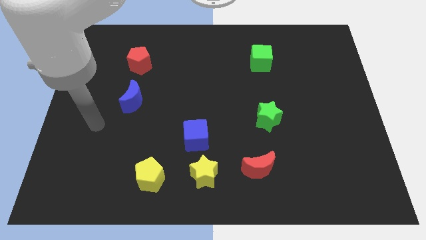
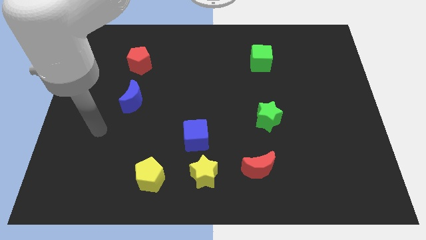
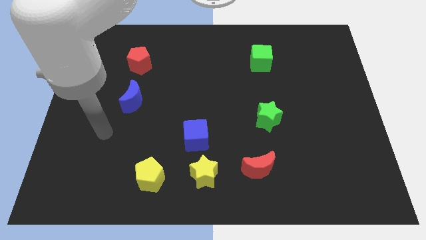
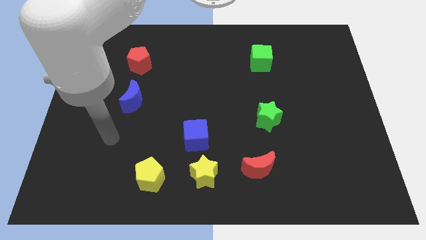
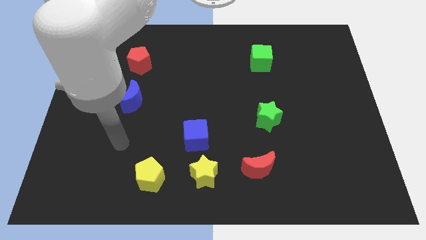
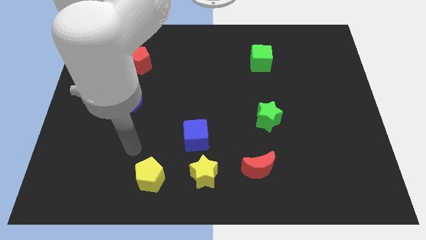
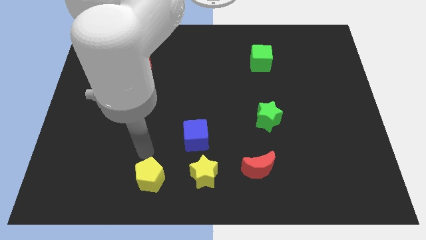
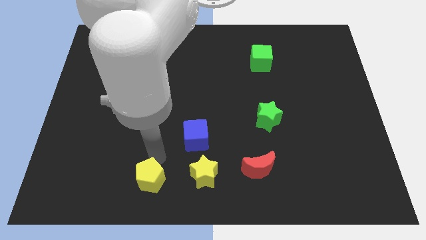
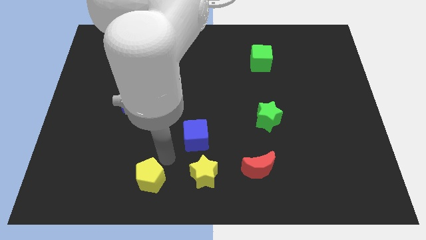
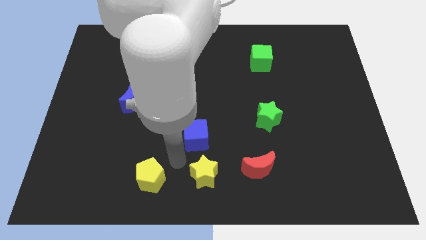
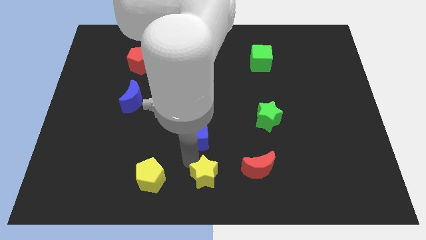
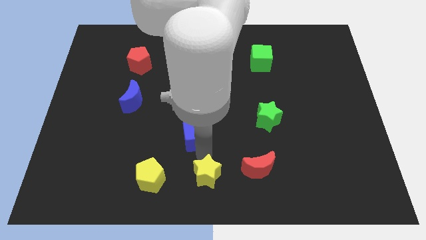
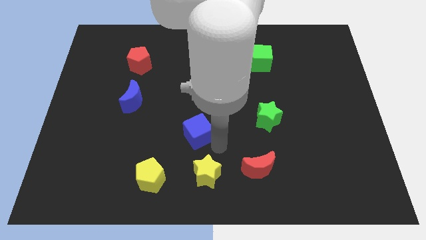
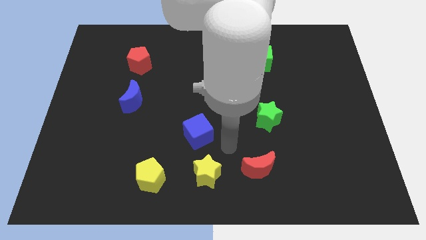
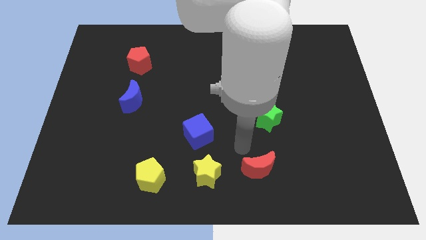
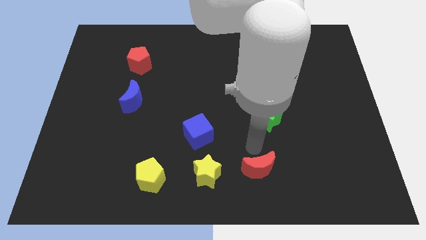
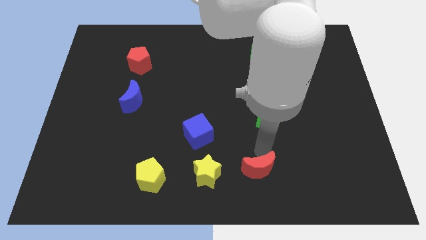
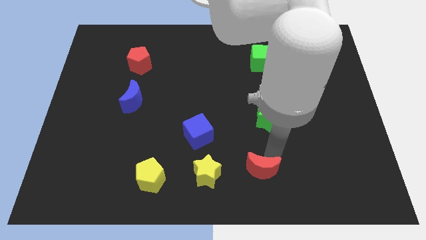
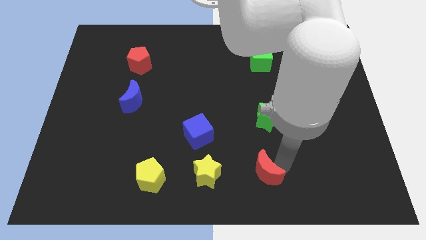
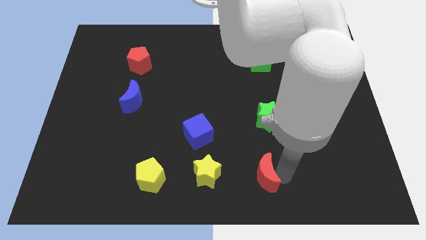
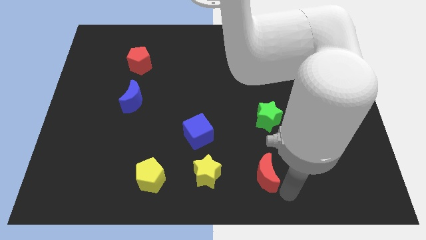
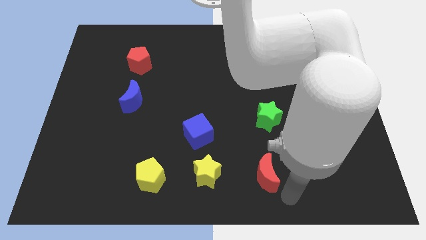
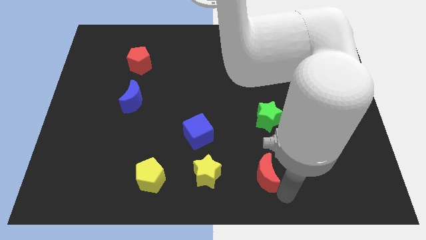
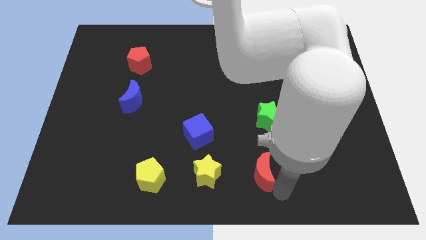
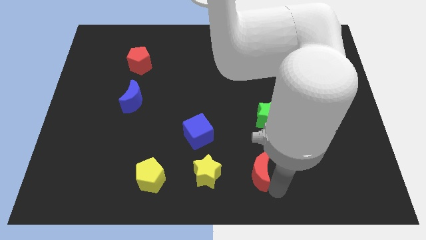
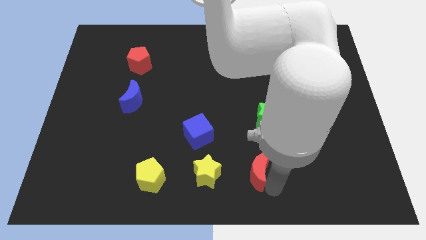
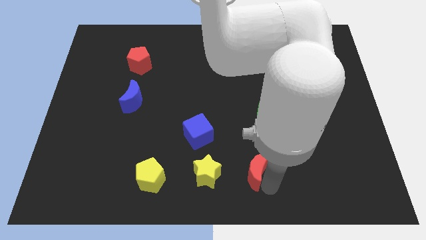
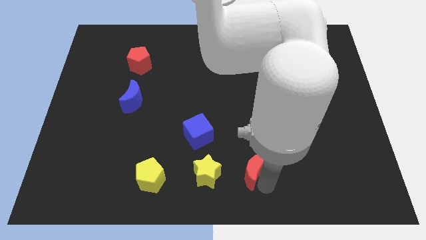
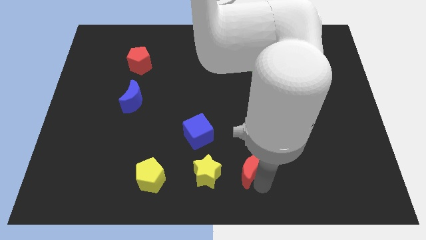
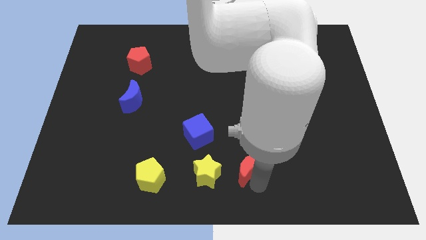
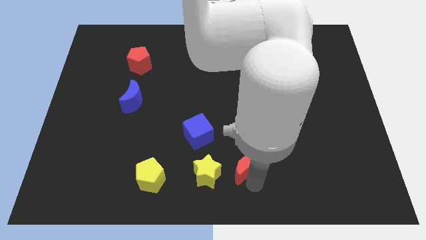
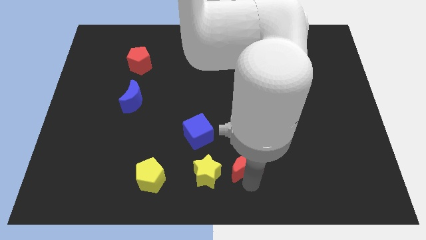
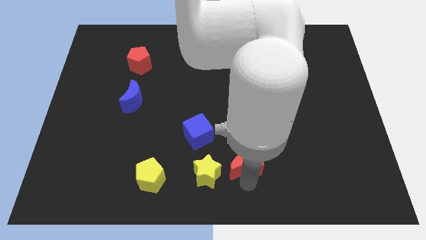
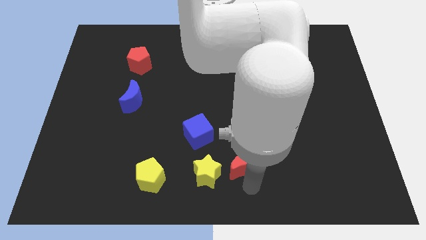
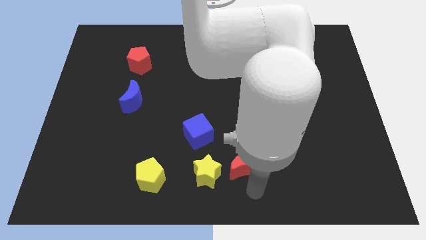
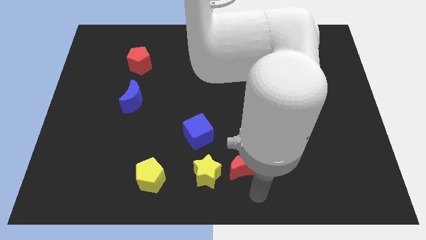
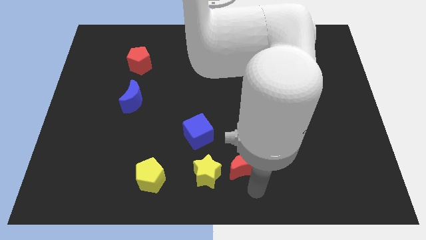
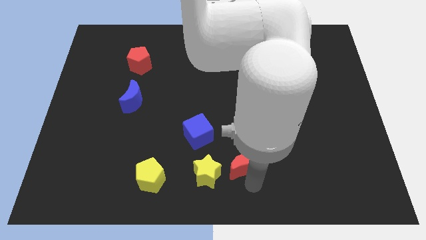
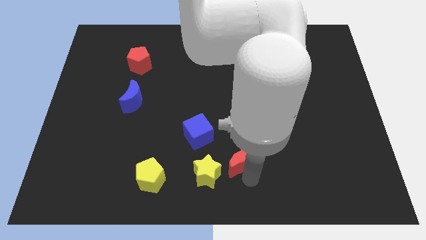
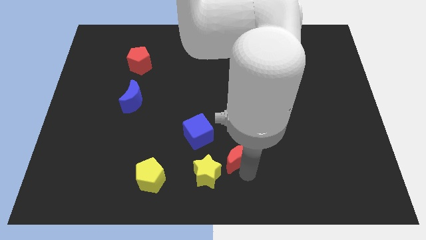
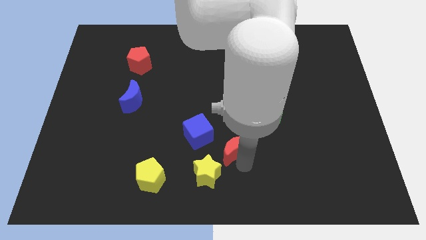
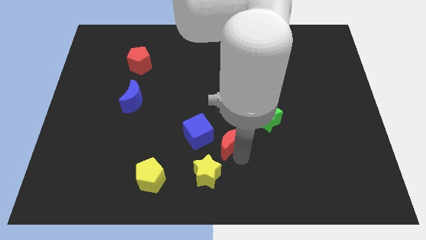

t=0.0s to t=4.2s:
slightly push the red moon up and to the left

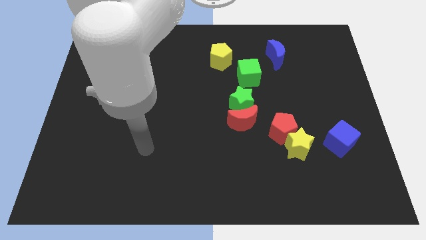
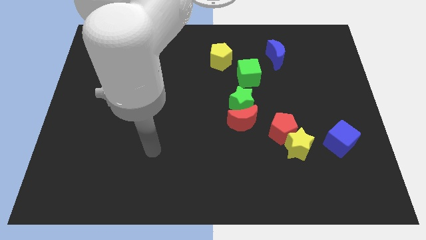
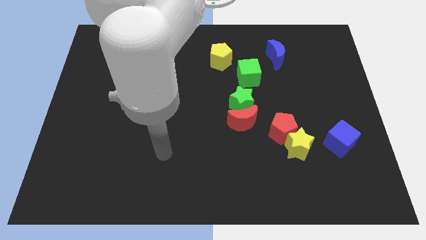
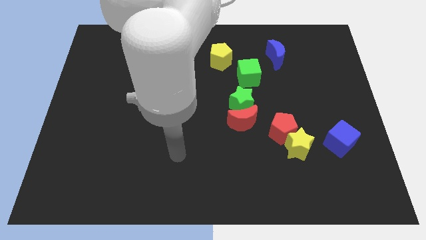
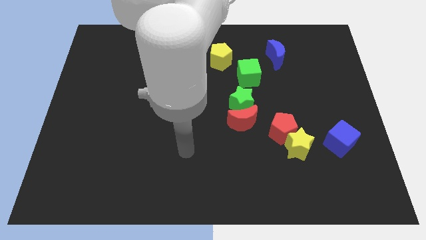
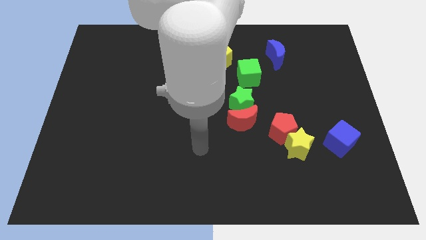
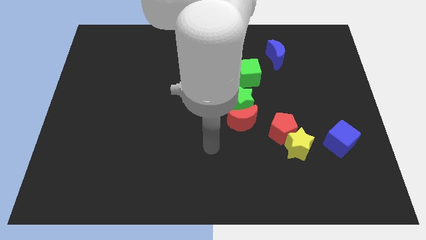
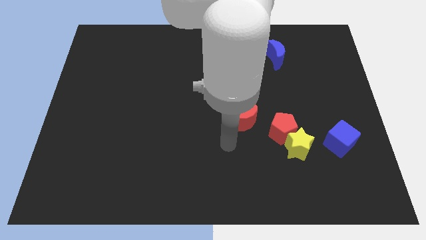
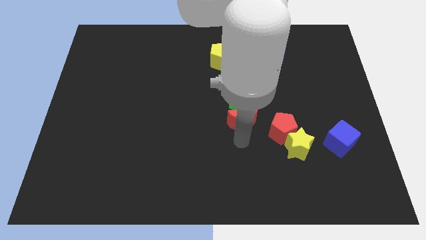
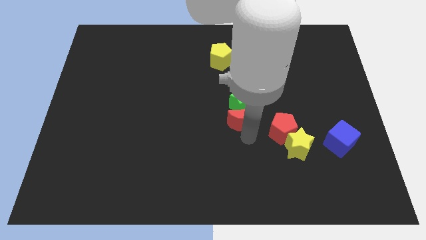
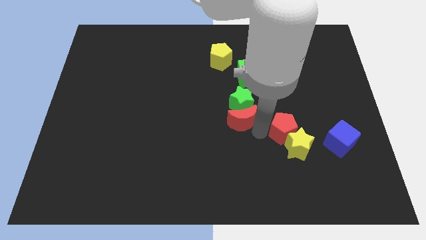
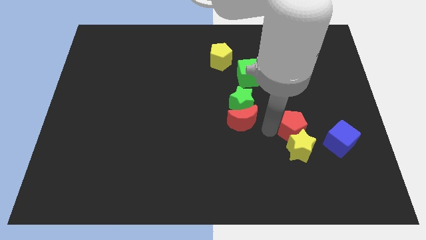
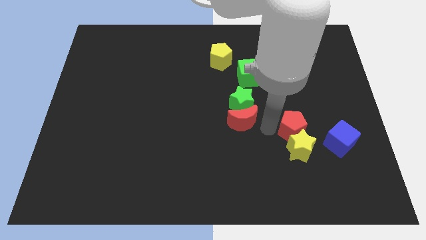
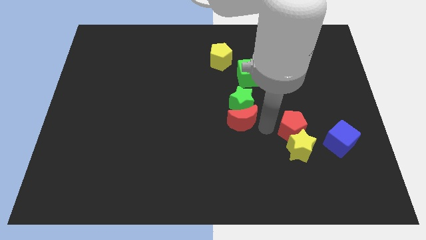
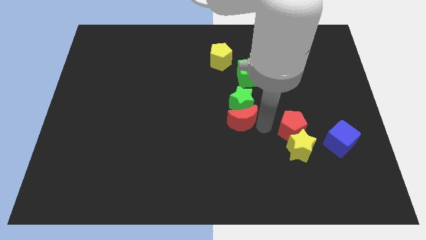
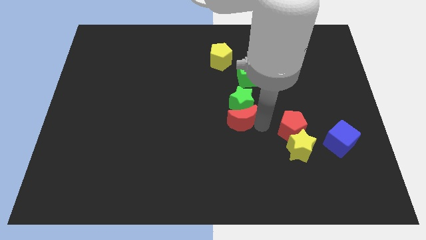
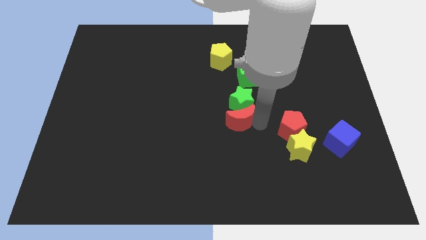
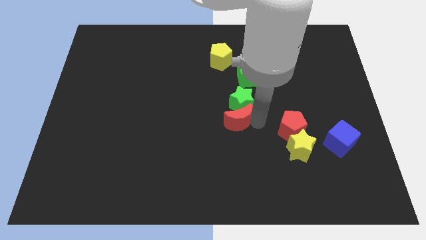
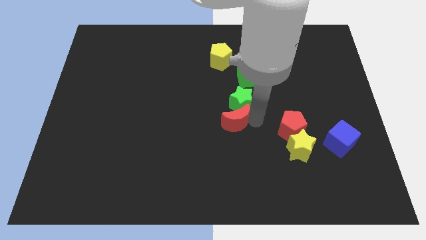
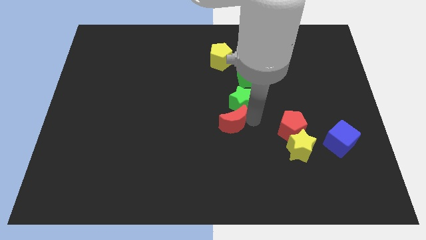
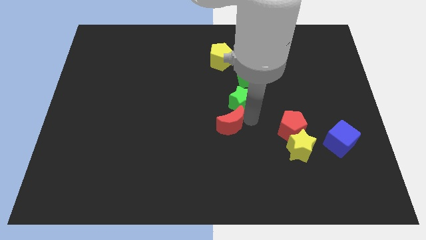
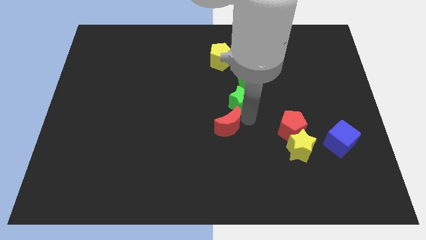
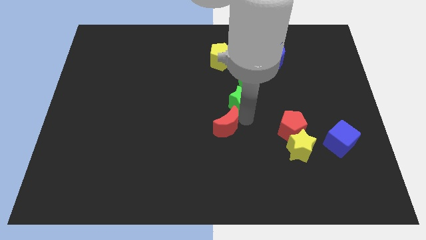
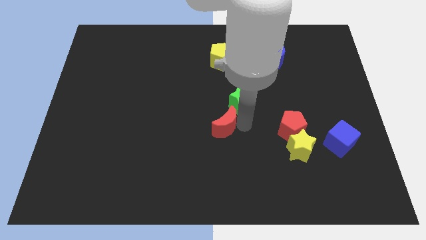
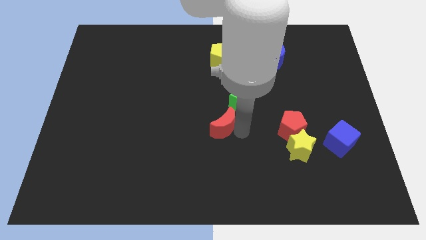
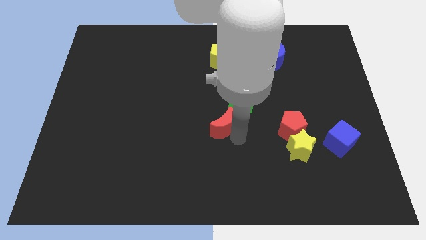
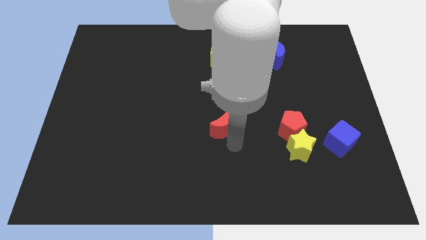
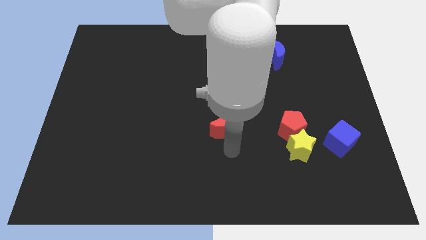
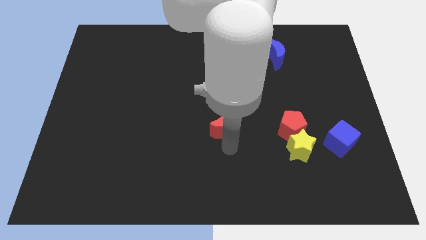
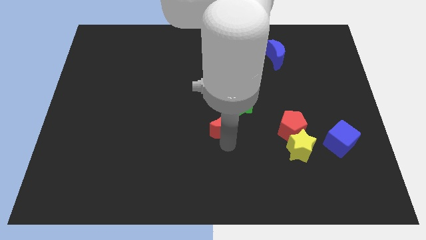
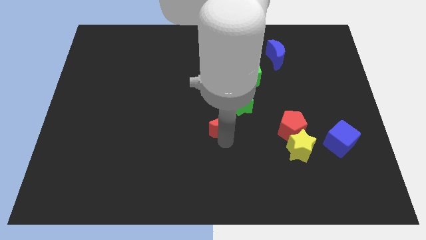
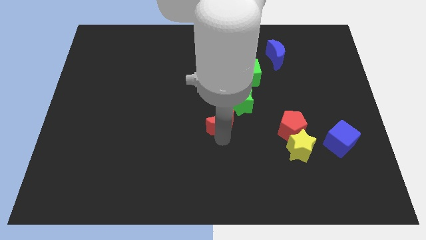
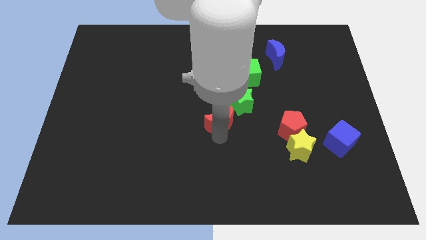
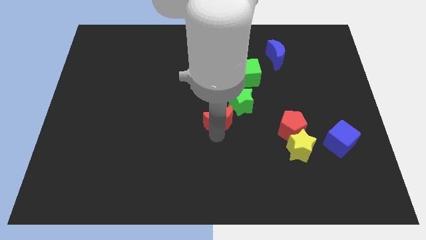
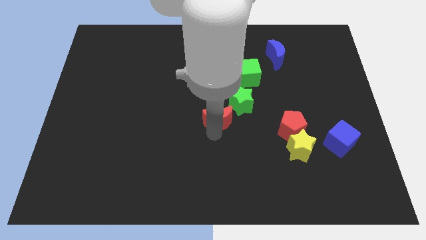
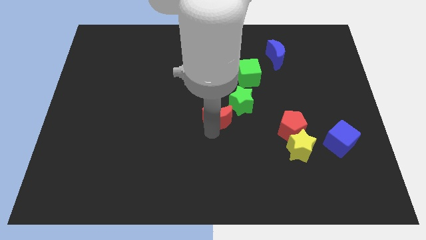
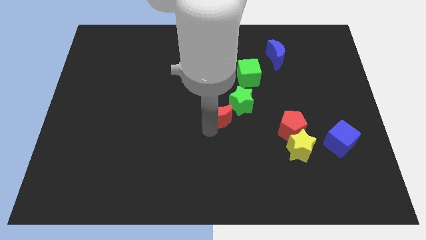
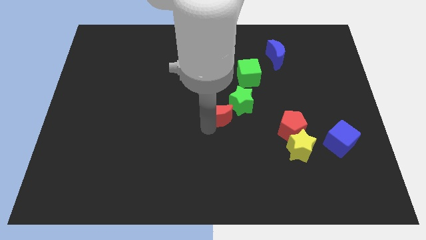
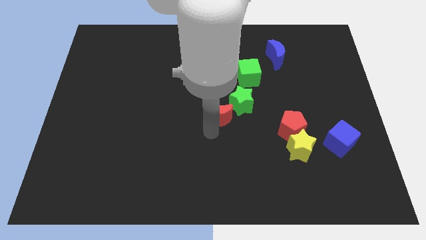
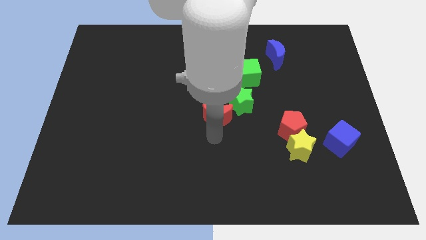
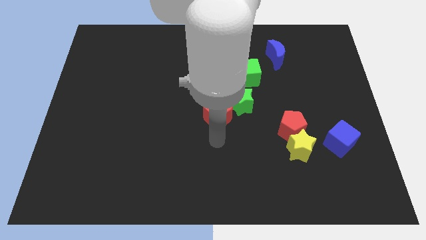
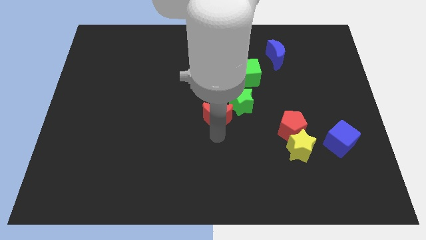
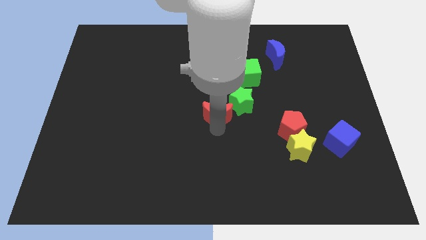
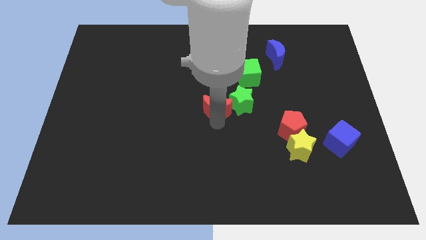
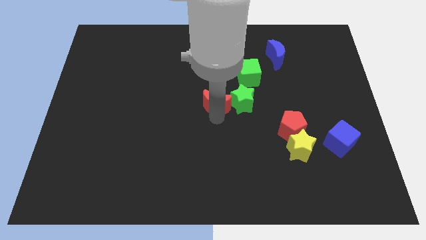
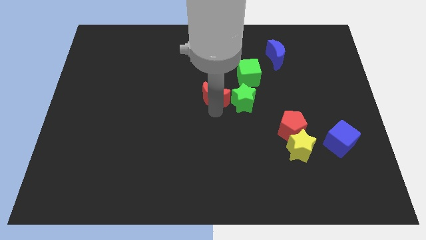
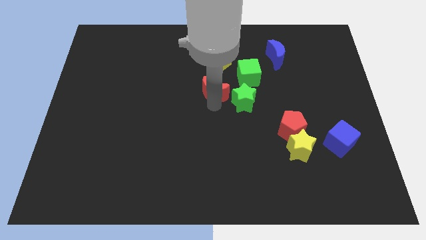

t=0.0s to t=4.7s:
slightly push the red moon upwards
